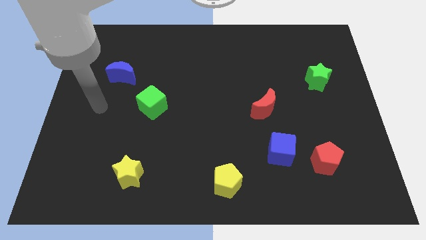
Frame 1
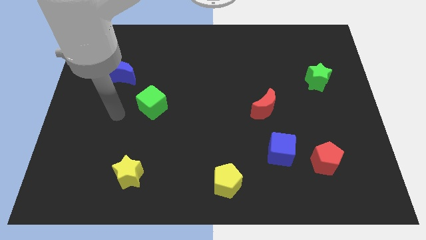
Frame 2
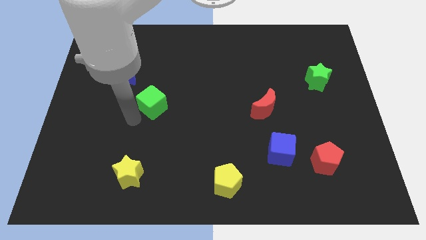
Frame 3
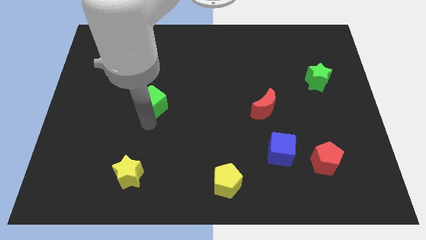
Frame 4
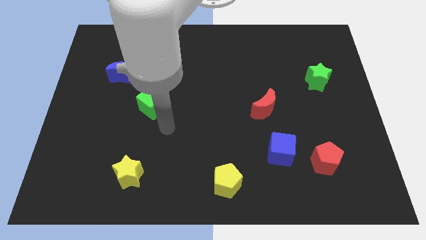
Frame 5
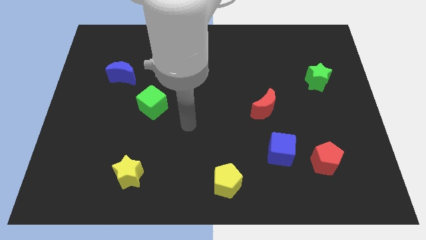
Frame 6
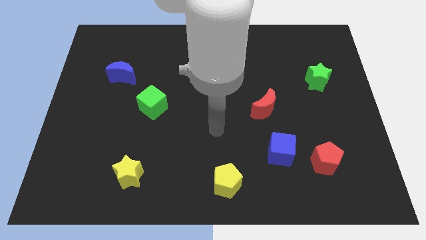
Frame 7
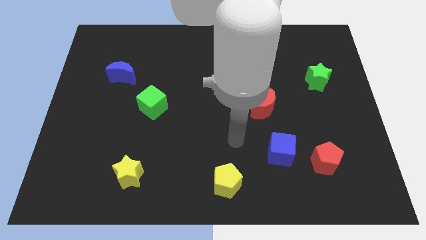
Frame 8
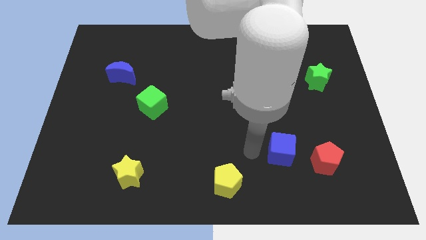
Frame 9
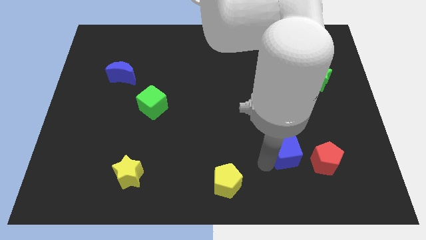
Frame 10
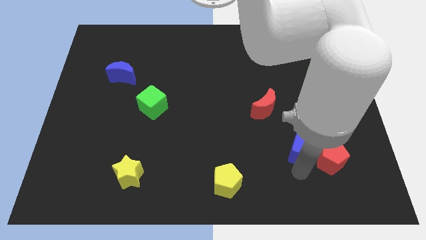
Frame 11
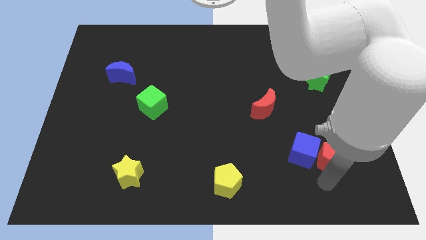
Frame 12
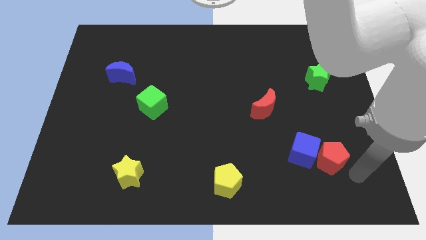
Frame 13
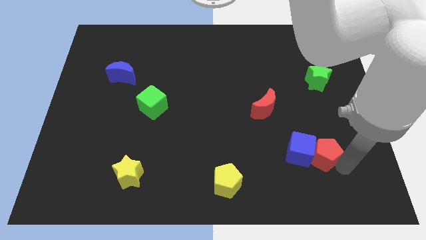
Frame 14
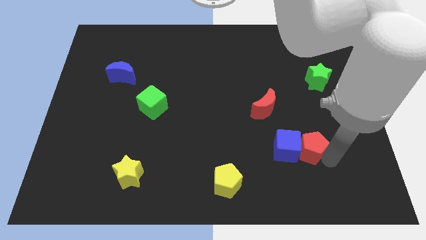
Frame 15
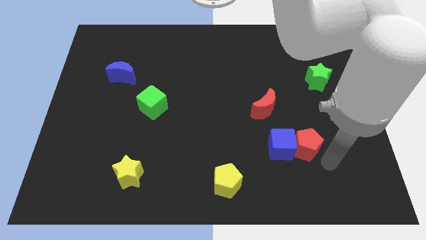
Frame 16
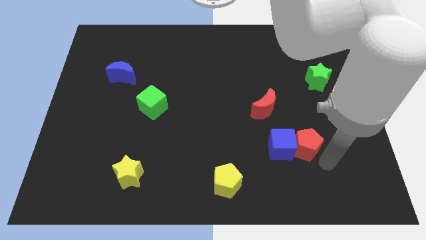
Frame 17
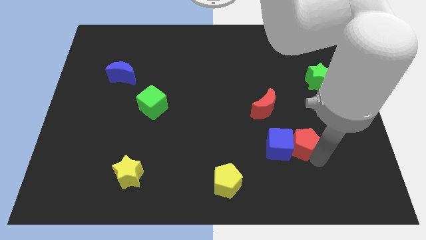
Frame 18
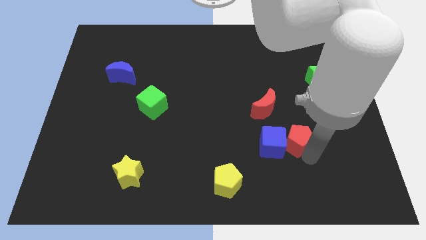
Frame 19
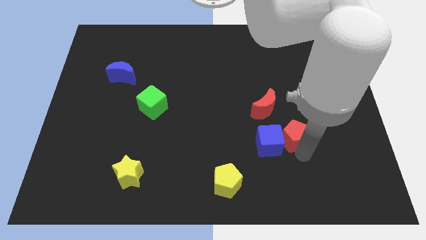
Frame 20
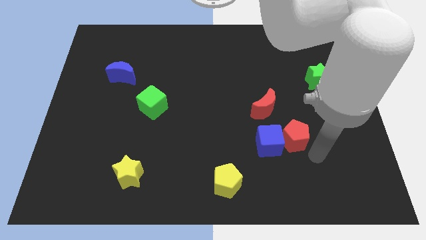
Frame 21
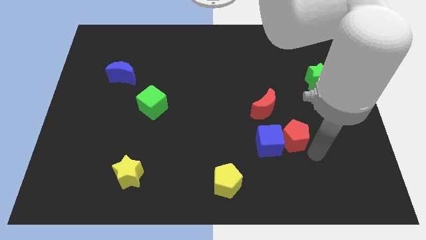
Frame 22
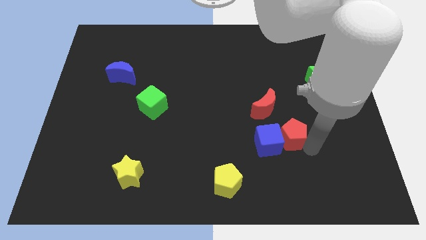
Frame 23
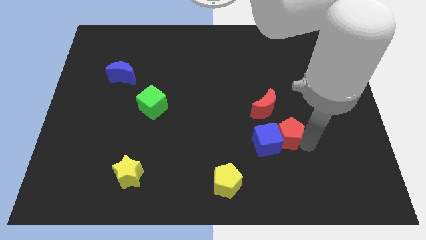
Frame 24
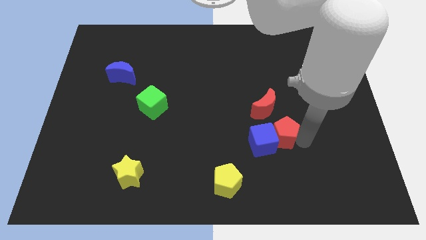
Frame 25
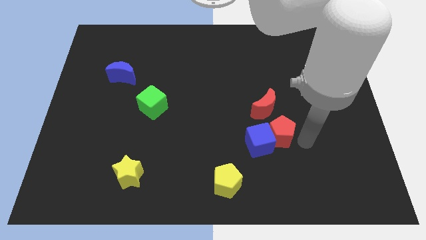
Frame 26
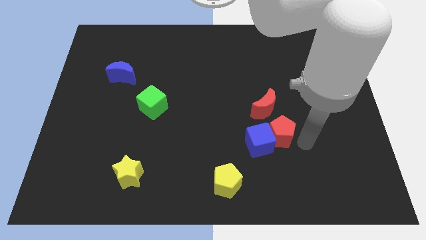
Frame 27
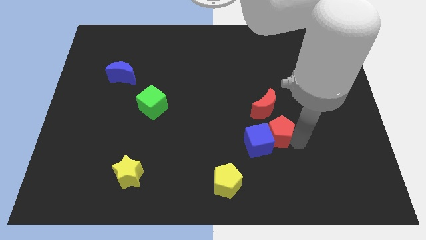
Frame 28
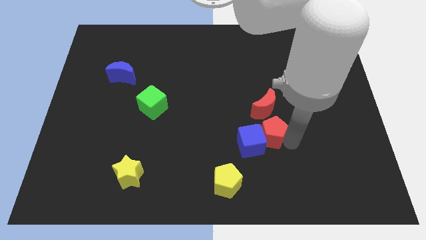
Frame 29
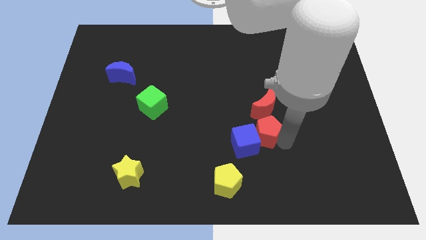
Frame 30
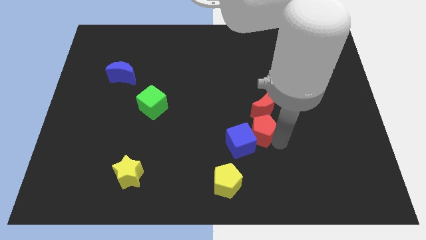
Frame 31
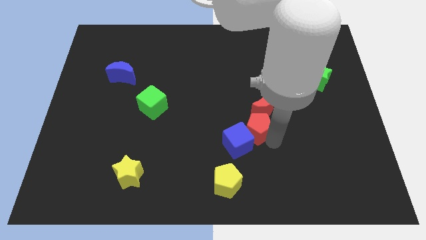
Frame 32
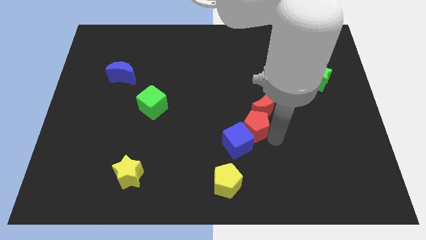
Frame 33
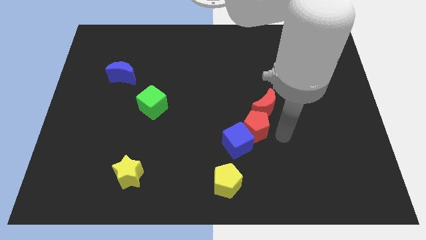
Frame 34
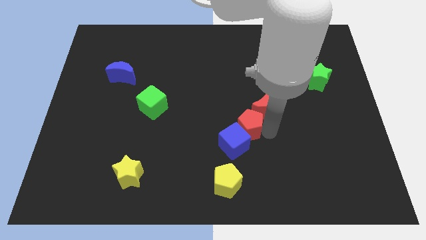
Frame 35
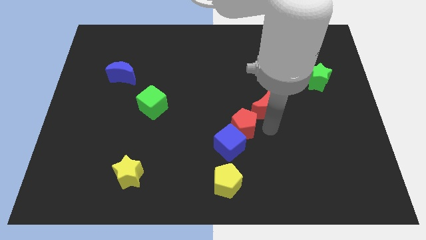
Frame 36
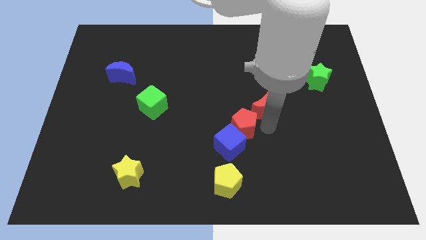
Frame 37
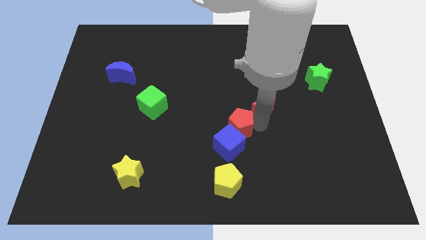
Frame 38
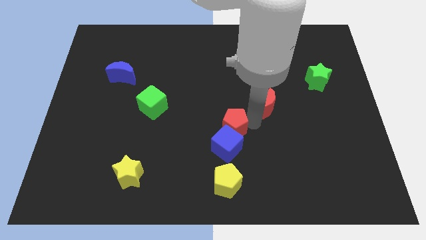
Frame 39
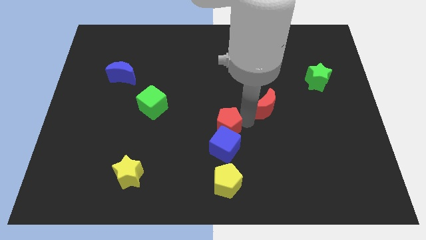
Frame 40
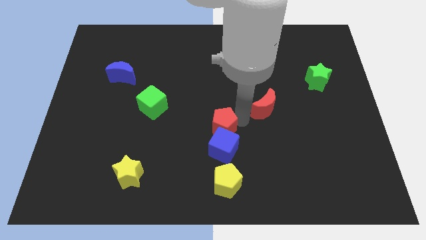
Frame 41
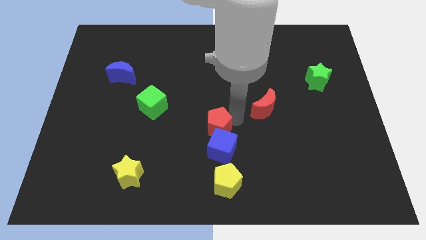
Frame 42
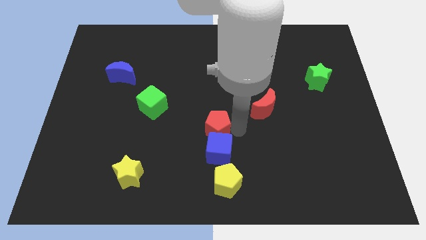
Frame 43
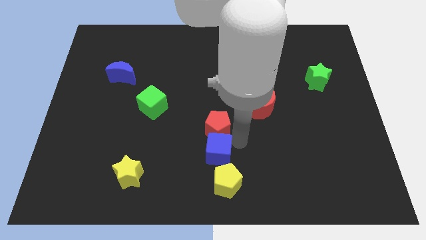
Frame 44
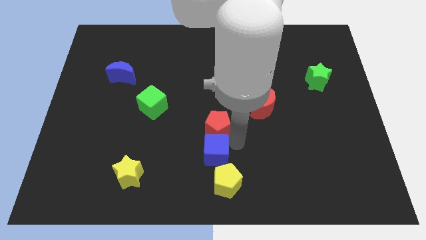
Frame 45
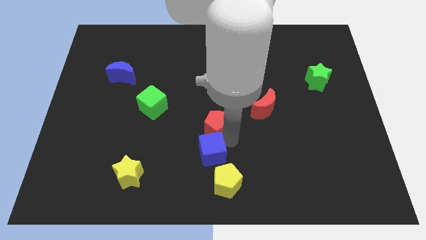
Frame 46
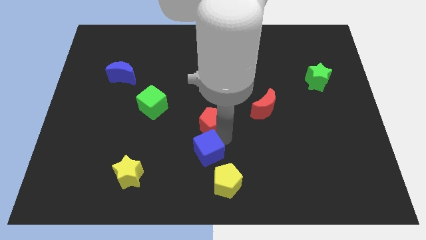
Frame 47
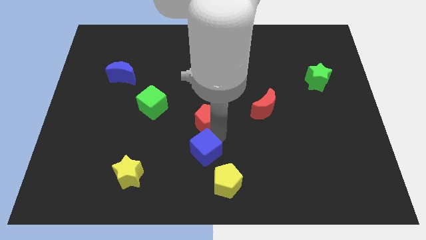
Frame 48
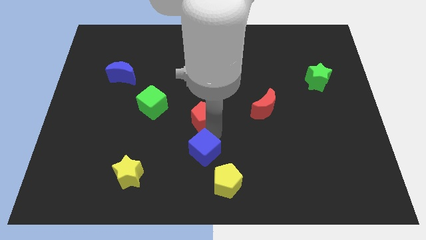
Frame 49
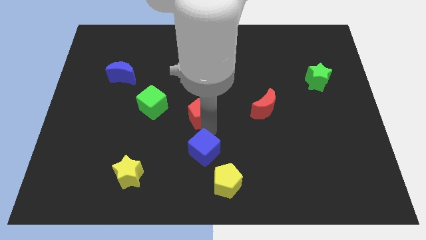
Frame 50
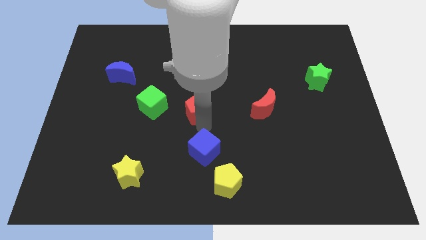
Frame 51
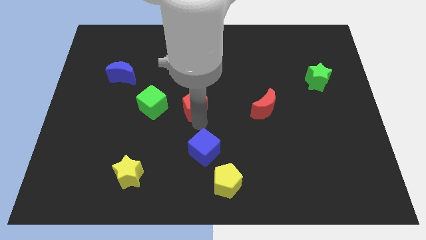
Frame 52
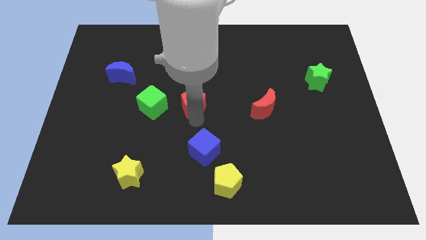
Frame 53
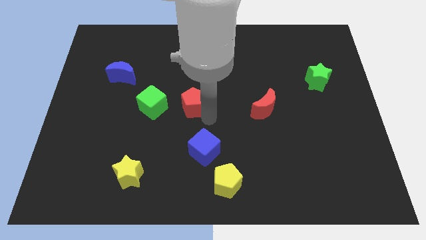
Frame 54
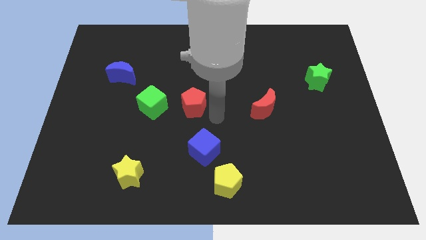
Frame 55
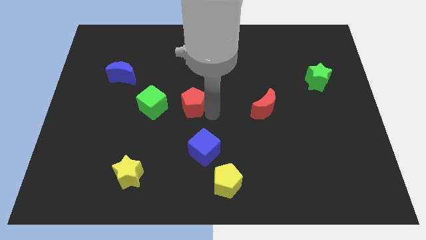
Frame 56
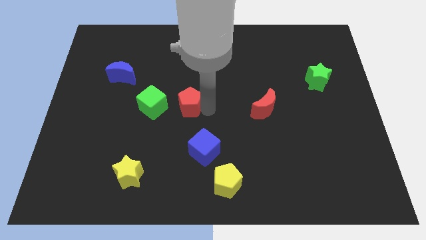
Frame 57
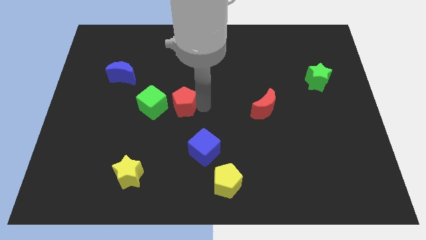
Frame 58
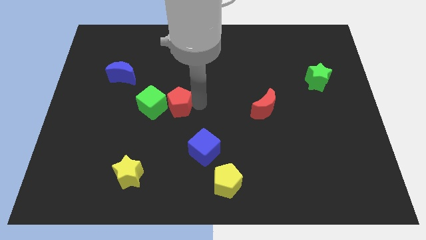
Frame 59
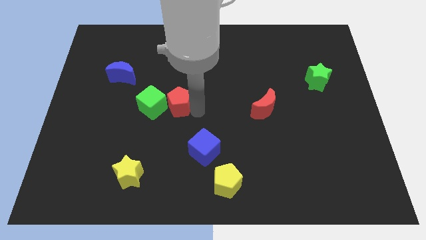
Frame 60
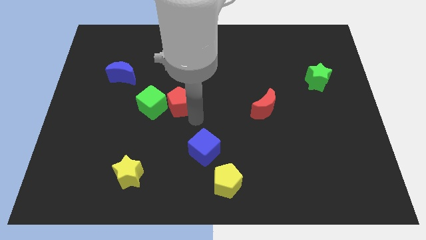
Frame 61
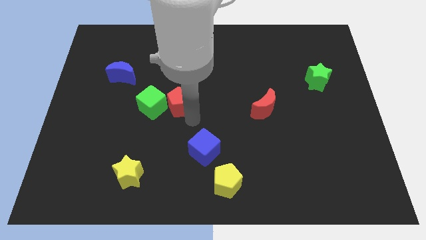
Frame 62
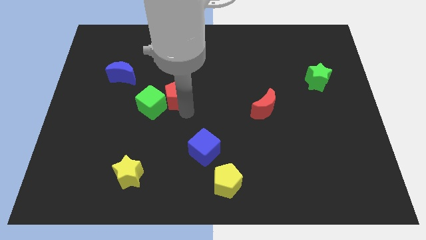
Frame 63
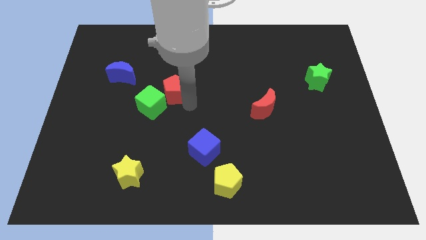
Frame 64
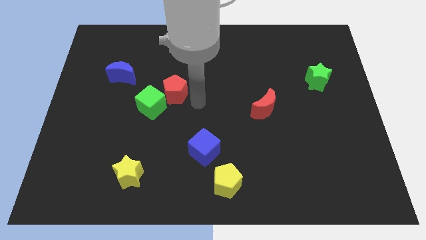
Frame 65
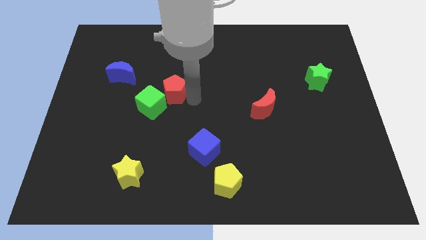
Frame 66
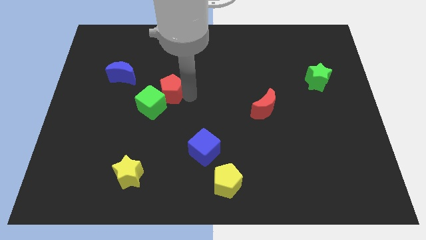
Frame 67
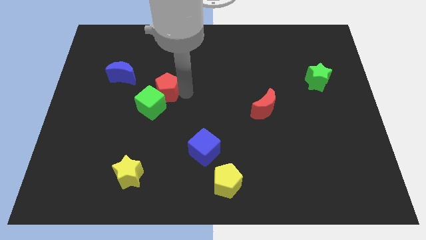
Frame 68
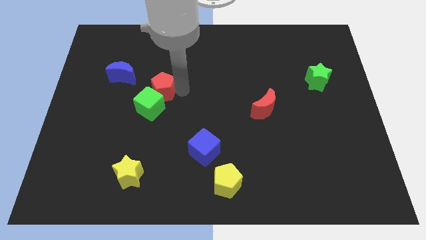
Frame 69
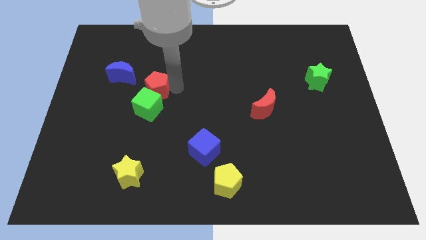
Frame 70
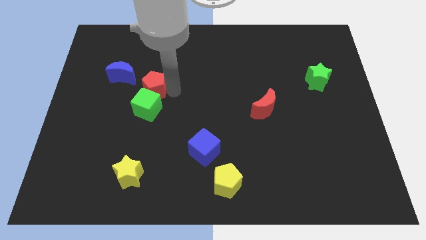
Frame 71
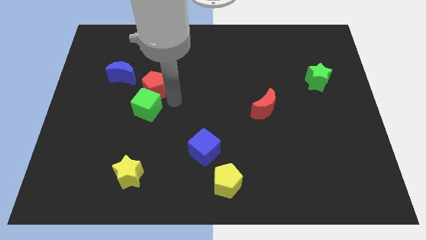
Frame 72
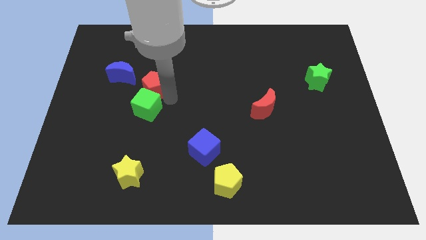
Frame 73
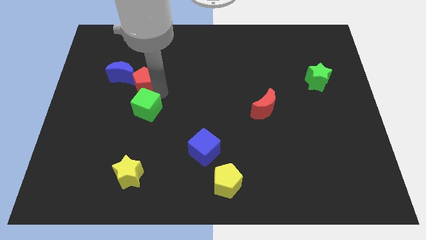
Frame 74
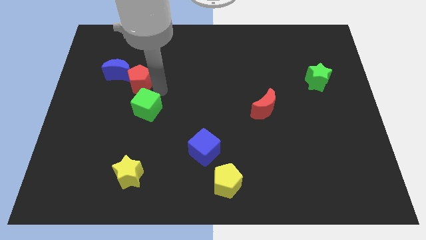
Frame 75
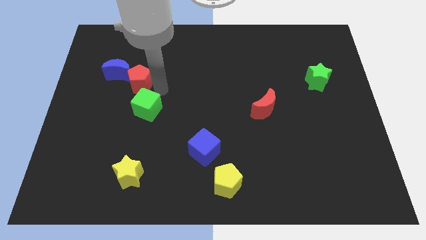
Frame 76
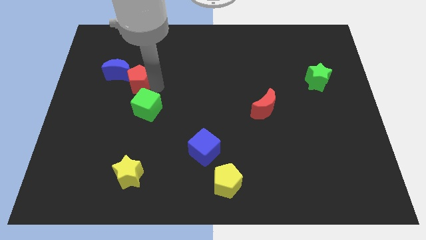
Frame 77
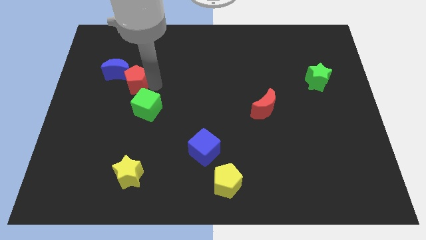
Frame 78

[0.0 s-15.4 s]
move the red pentagon next to the blue moon
